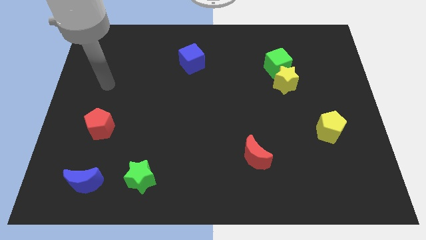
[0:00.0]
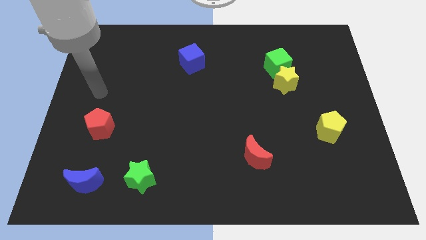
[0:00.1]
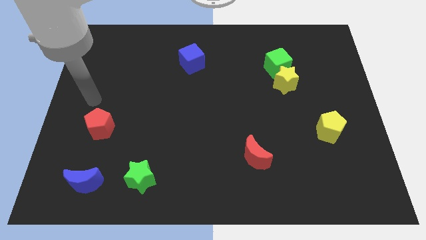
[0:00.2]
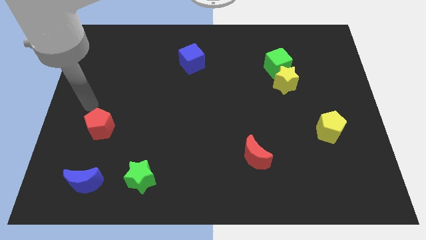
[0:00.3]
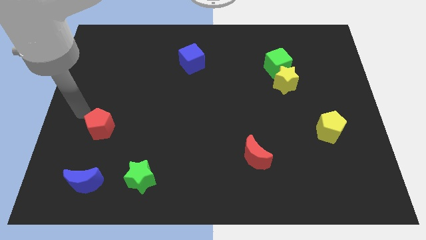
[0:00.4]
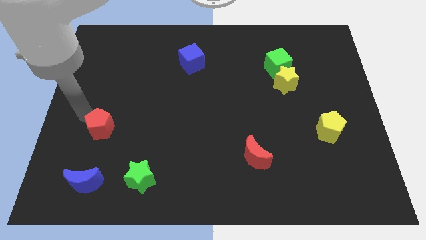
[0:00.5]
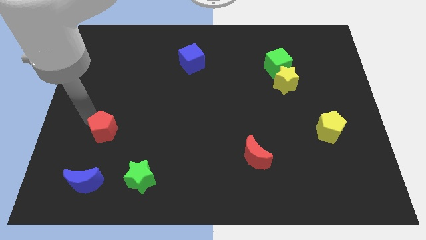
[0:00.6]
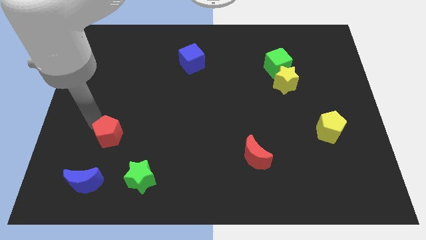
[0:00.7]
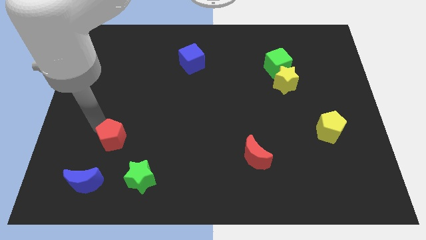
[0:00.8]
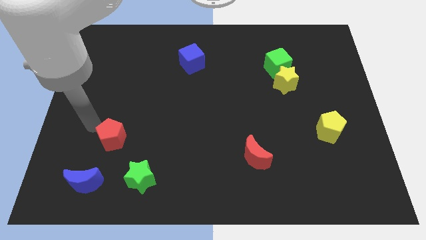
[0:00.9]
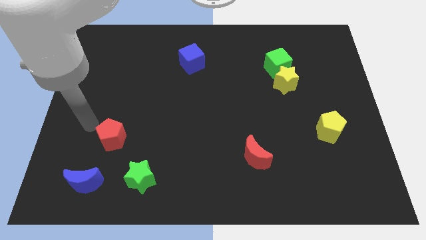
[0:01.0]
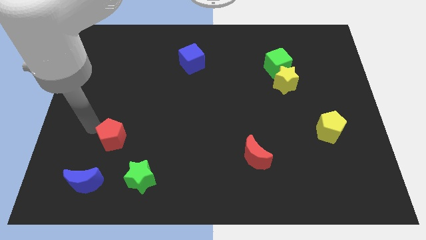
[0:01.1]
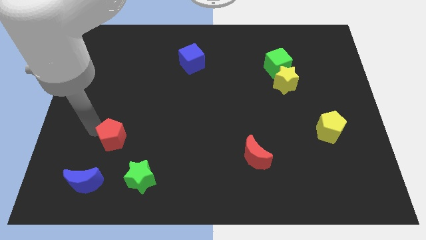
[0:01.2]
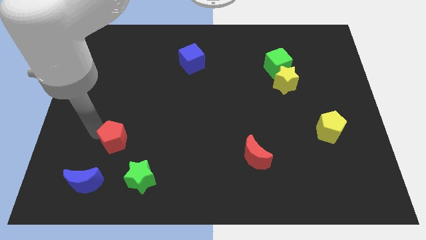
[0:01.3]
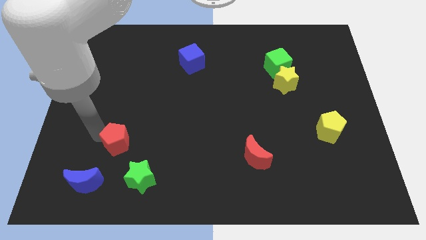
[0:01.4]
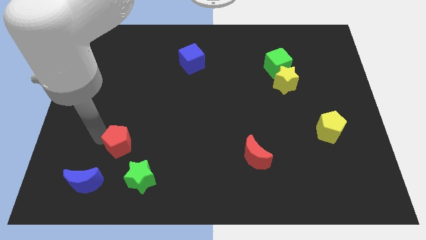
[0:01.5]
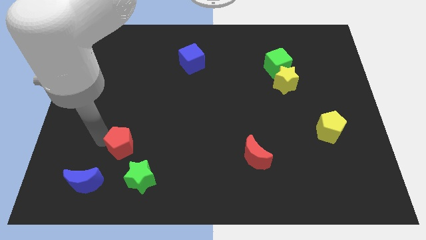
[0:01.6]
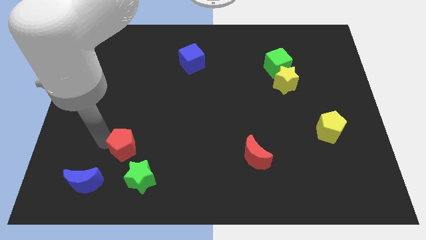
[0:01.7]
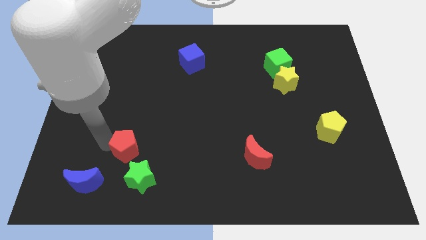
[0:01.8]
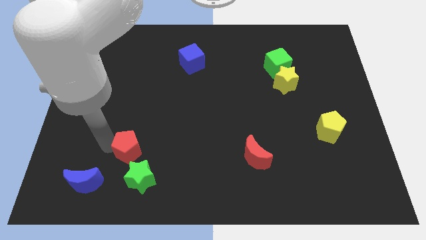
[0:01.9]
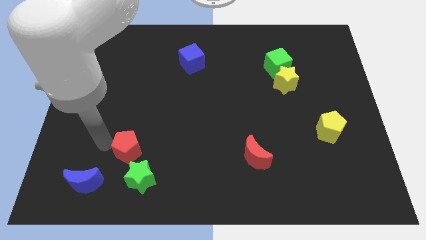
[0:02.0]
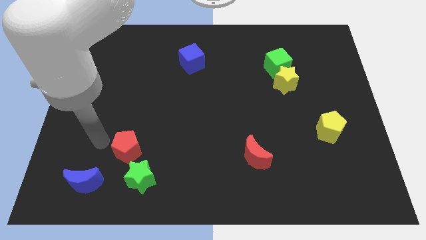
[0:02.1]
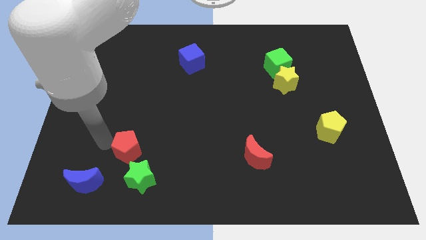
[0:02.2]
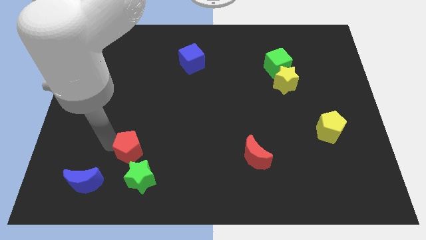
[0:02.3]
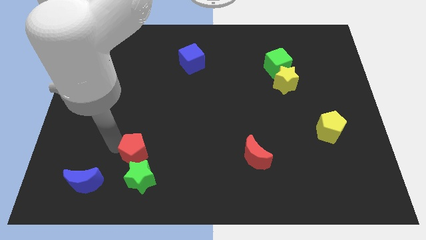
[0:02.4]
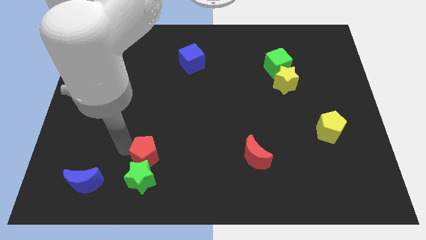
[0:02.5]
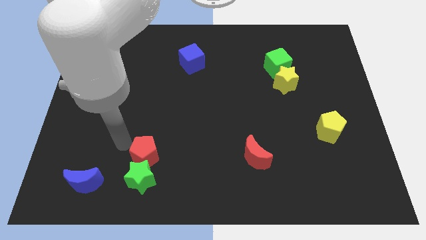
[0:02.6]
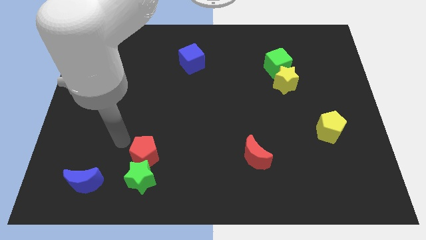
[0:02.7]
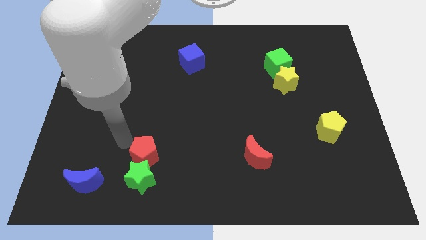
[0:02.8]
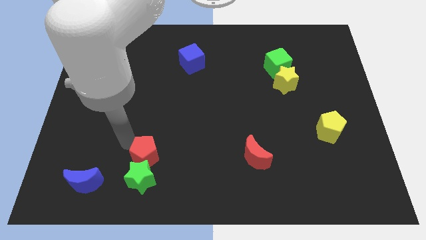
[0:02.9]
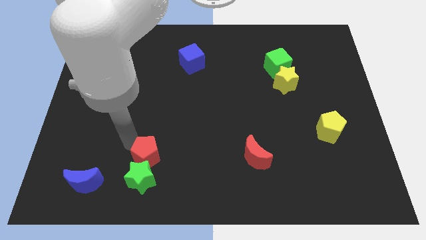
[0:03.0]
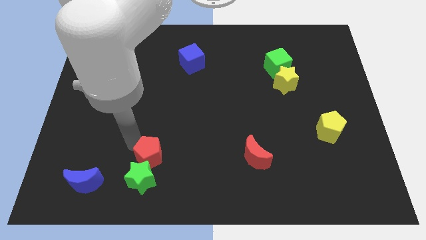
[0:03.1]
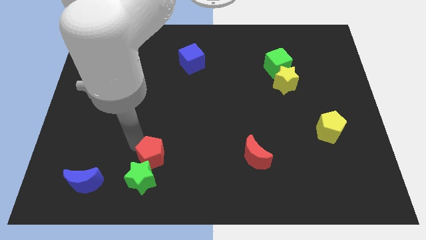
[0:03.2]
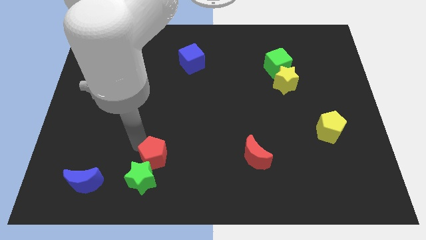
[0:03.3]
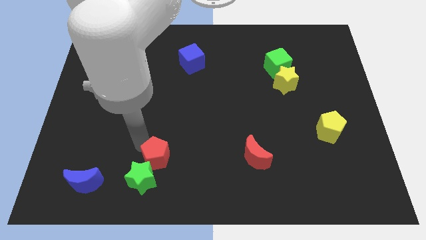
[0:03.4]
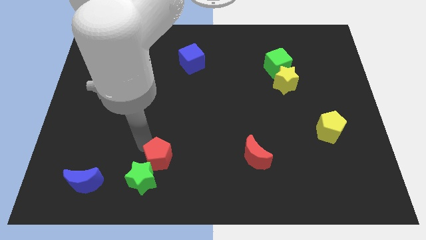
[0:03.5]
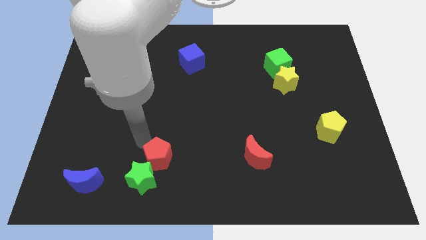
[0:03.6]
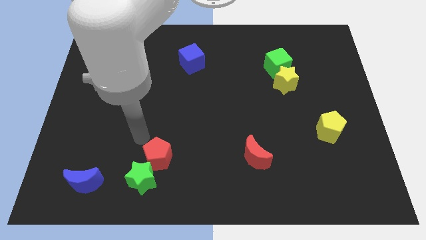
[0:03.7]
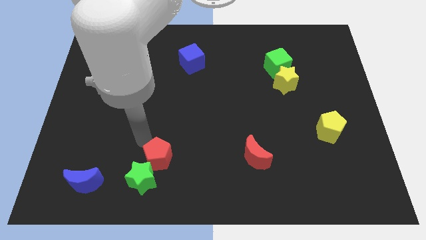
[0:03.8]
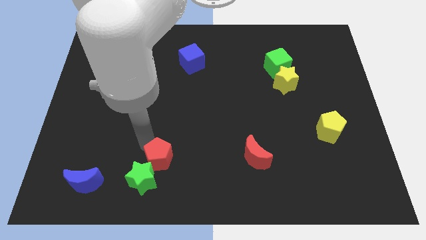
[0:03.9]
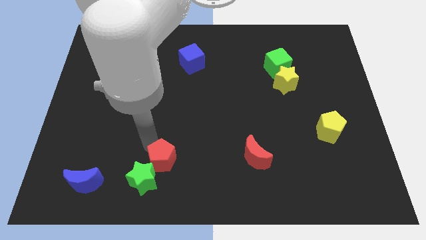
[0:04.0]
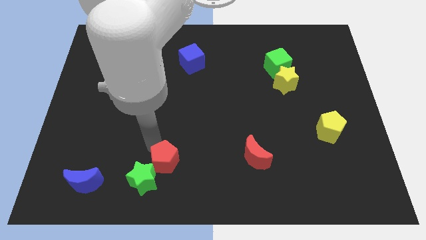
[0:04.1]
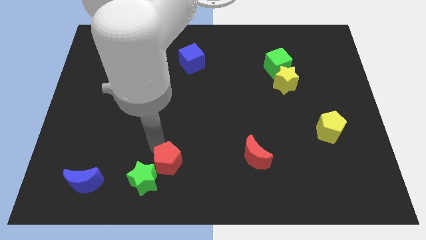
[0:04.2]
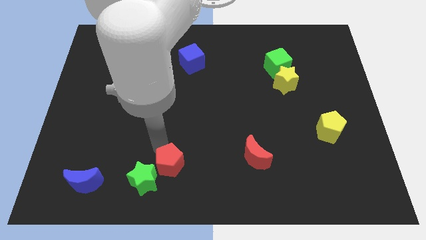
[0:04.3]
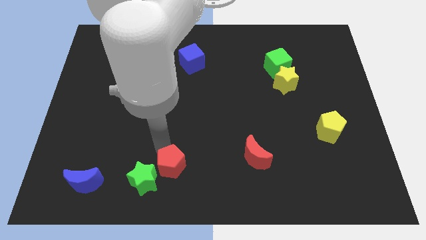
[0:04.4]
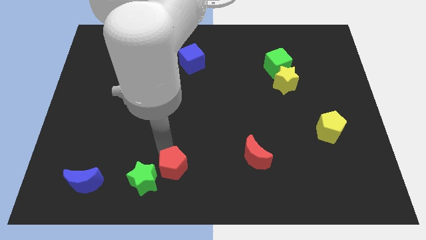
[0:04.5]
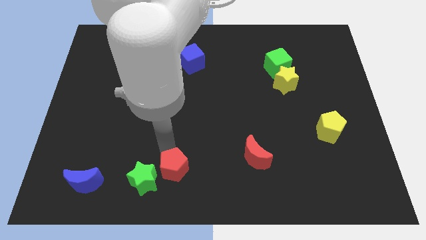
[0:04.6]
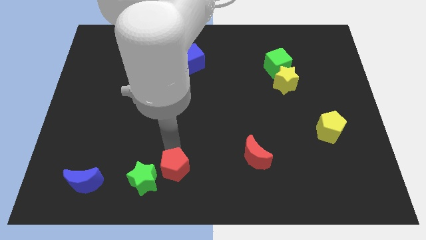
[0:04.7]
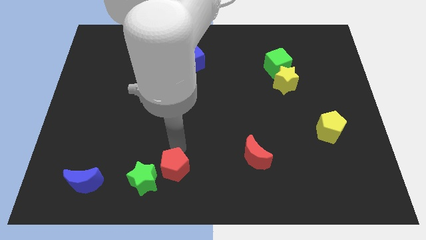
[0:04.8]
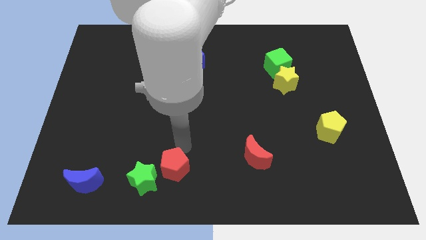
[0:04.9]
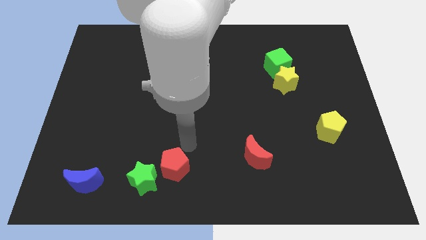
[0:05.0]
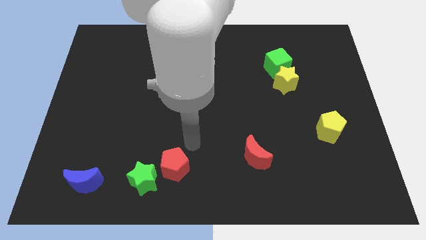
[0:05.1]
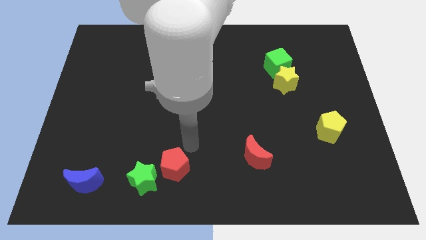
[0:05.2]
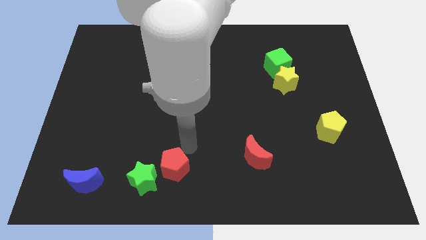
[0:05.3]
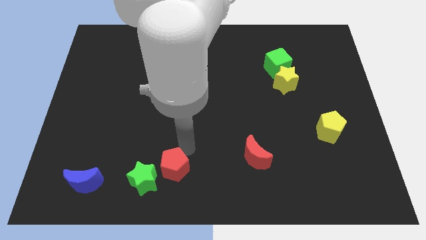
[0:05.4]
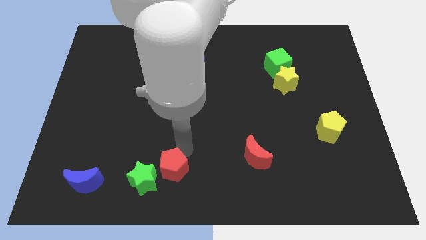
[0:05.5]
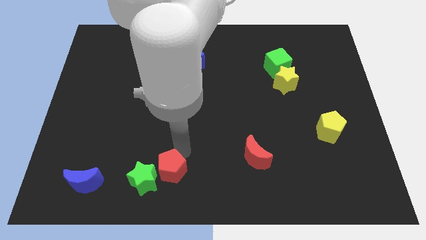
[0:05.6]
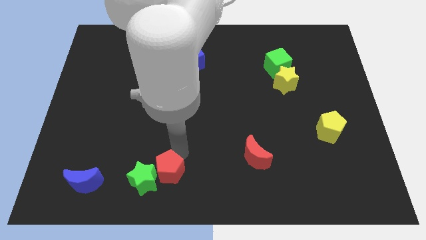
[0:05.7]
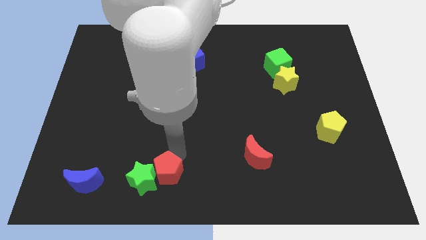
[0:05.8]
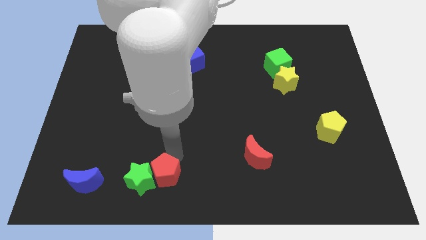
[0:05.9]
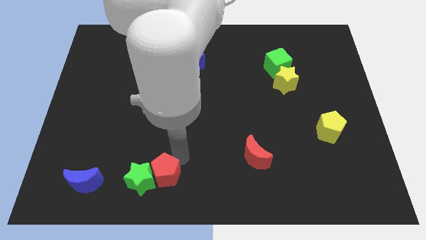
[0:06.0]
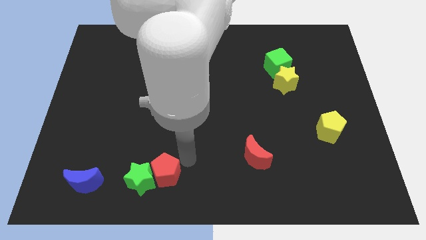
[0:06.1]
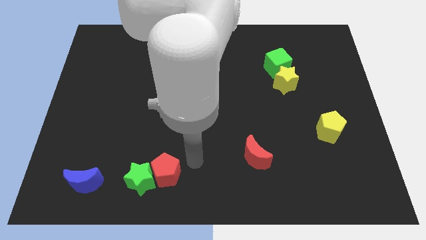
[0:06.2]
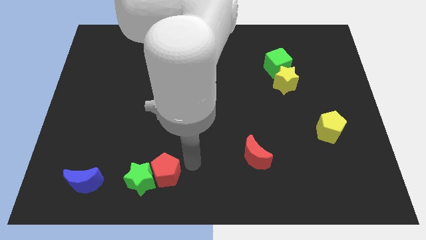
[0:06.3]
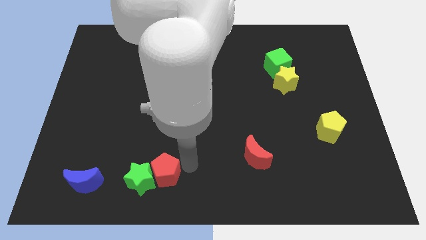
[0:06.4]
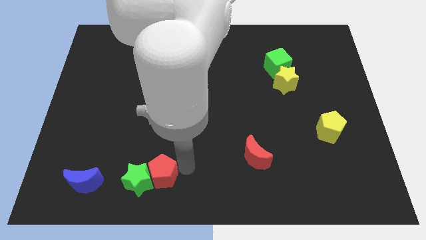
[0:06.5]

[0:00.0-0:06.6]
push the red pentagon just right of the blue moon
